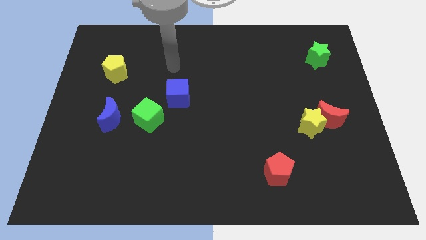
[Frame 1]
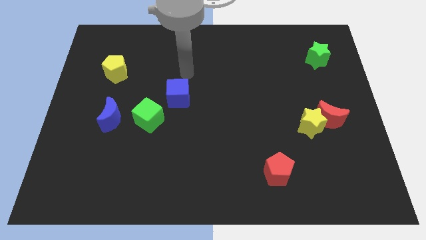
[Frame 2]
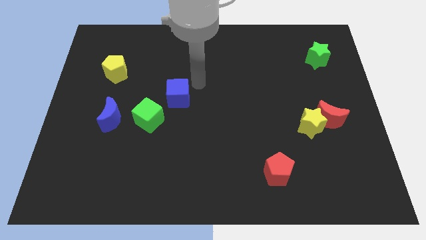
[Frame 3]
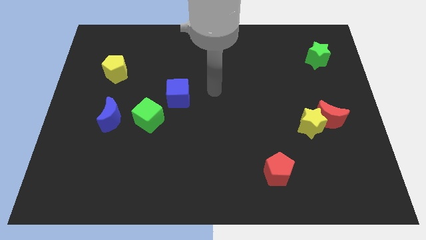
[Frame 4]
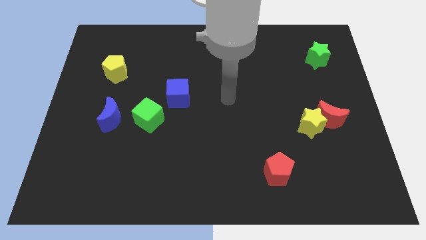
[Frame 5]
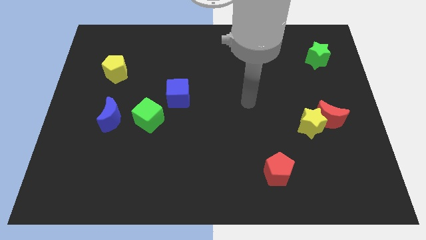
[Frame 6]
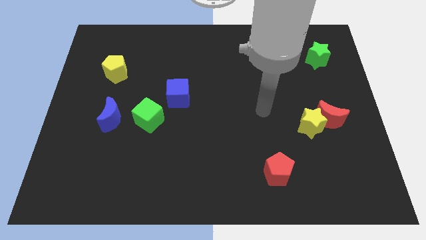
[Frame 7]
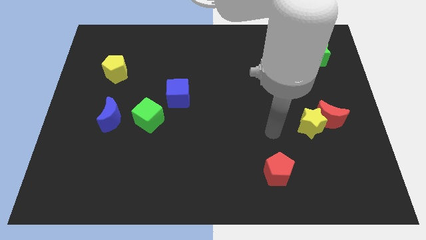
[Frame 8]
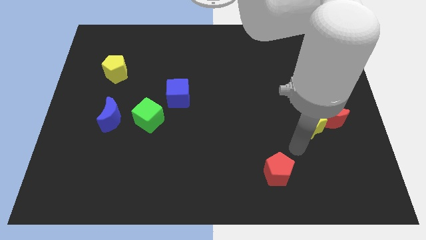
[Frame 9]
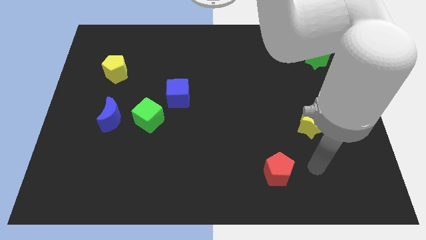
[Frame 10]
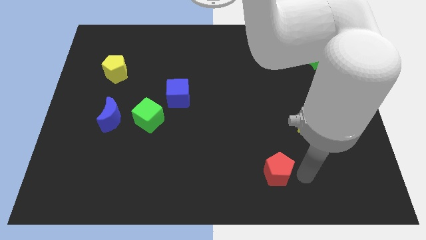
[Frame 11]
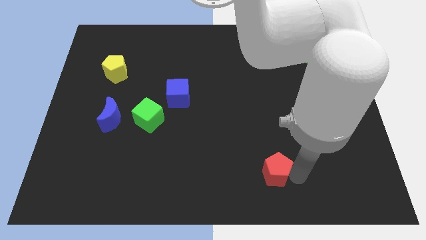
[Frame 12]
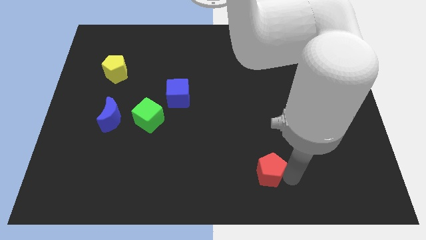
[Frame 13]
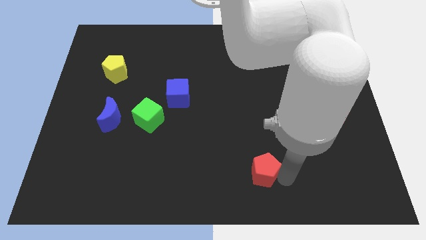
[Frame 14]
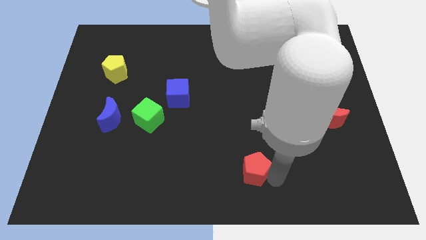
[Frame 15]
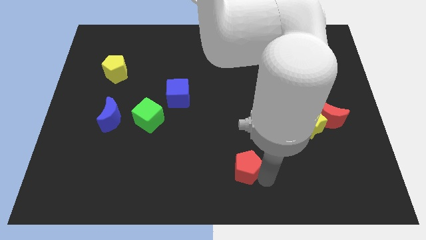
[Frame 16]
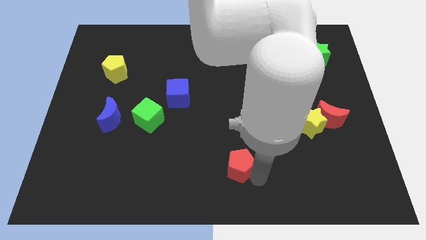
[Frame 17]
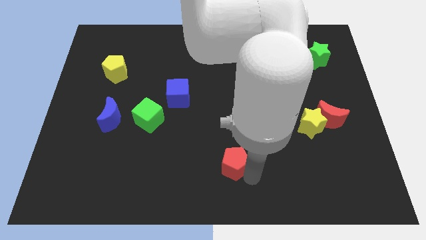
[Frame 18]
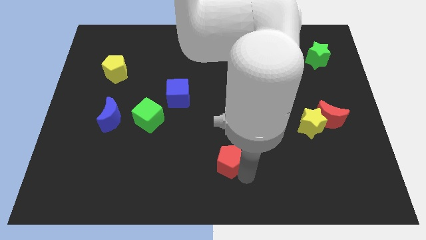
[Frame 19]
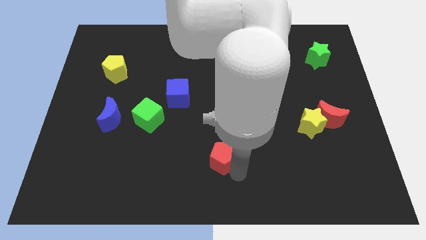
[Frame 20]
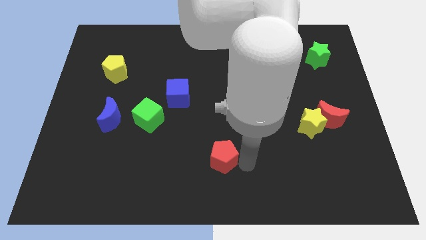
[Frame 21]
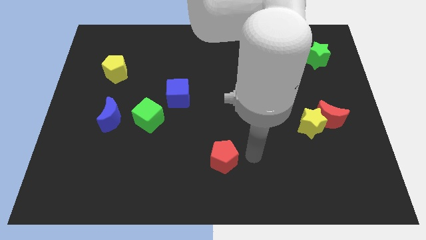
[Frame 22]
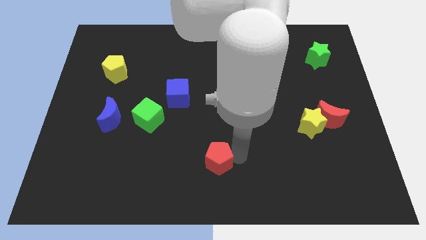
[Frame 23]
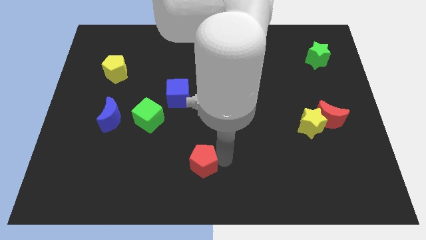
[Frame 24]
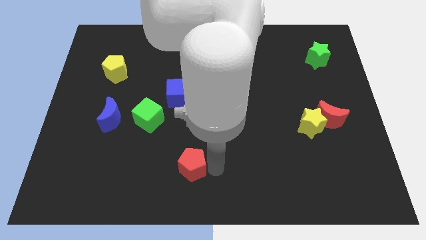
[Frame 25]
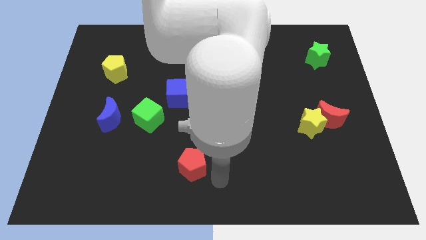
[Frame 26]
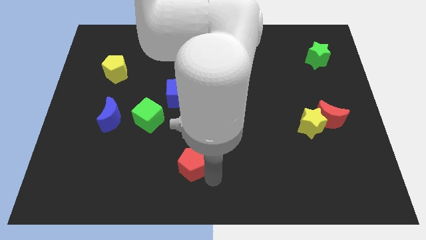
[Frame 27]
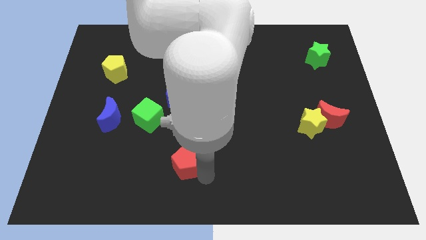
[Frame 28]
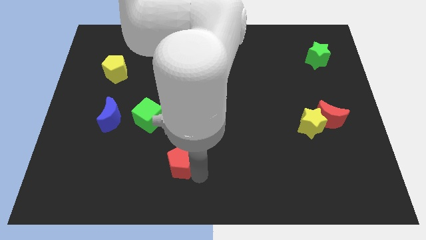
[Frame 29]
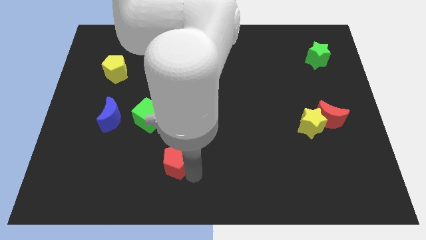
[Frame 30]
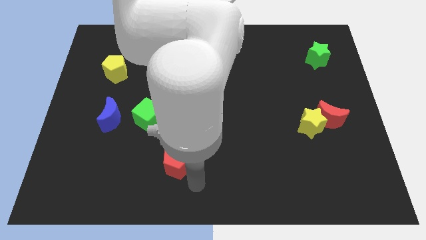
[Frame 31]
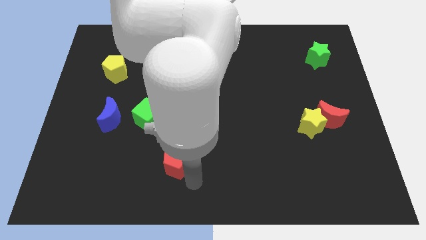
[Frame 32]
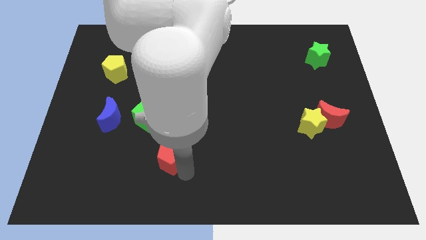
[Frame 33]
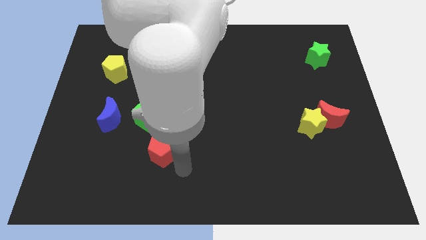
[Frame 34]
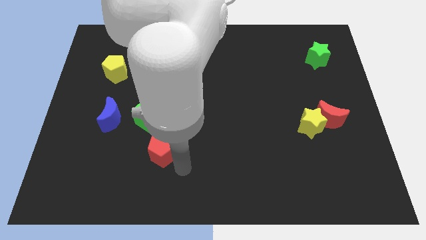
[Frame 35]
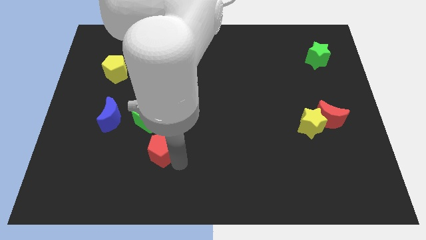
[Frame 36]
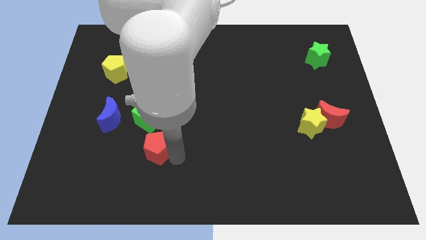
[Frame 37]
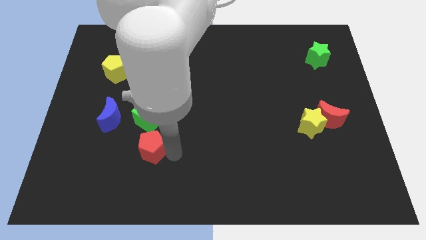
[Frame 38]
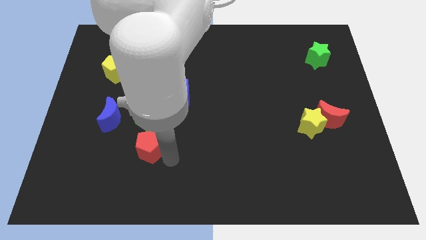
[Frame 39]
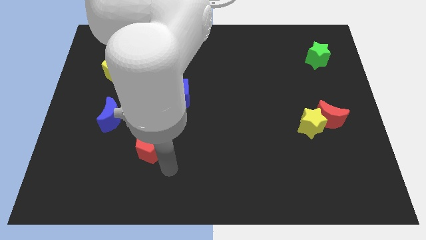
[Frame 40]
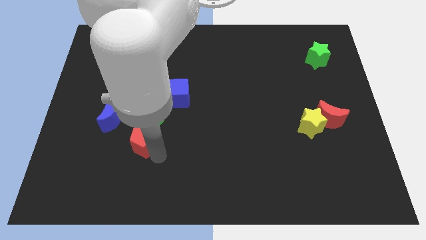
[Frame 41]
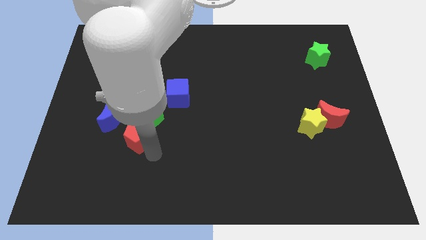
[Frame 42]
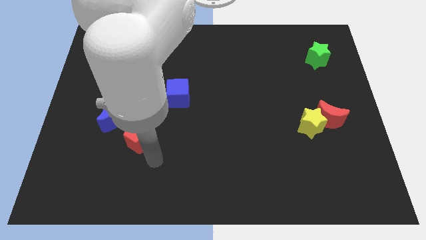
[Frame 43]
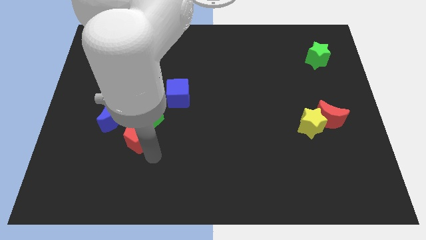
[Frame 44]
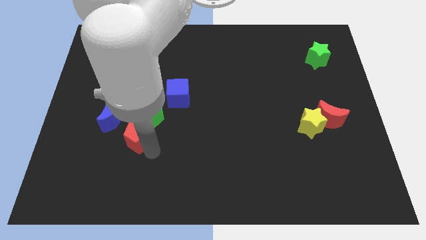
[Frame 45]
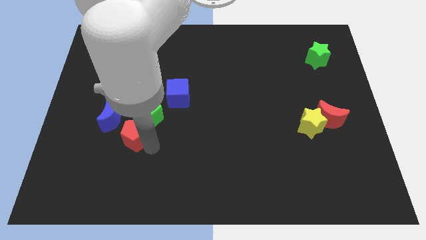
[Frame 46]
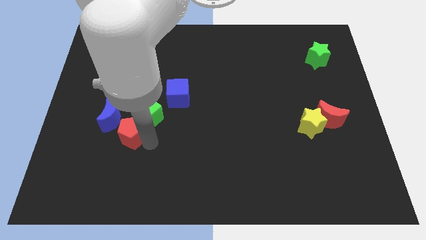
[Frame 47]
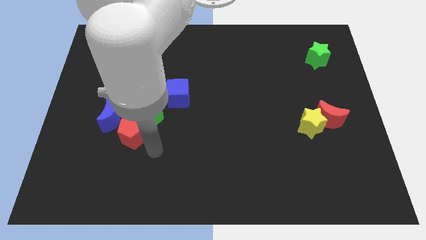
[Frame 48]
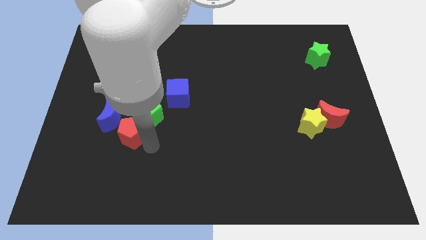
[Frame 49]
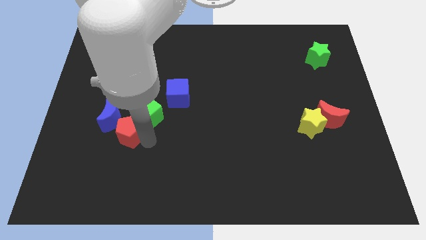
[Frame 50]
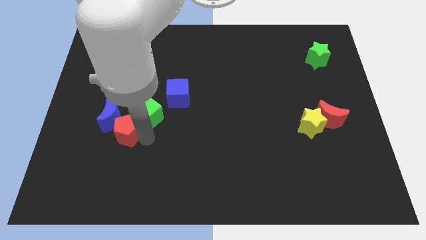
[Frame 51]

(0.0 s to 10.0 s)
slide the red pentagon towards the blue moon

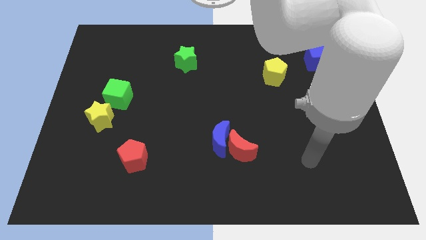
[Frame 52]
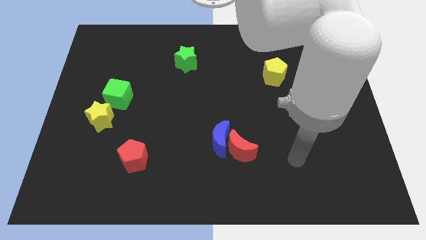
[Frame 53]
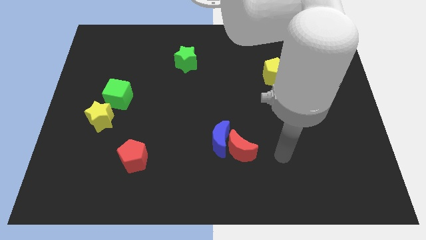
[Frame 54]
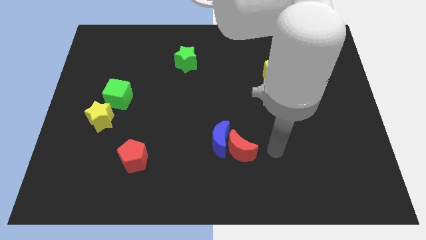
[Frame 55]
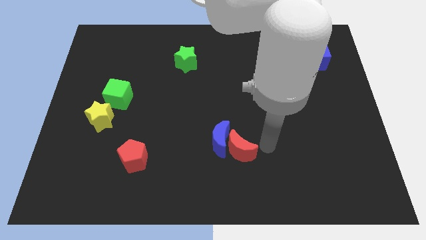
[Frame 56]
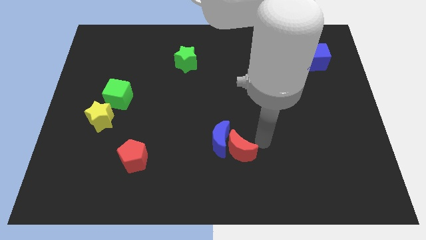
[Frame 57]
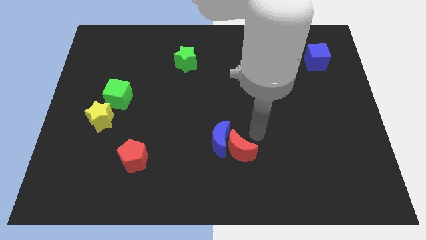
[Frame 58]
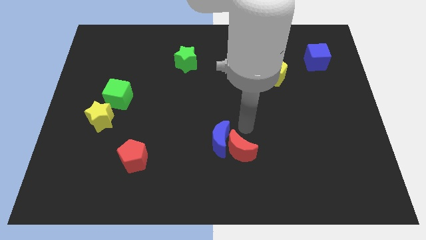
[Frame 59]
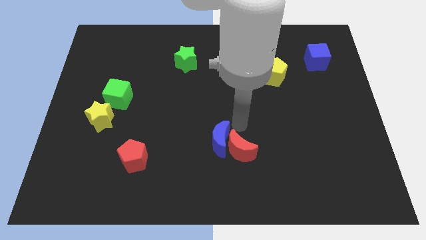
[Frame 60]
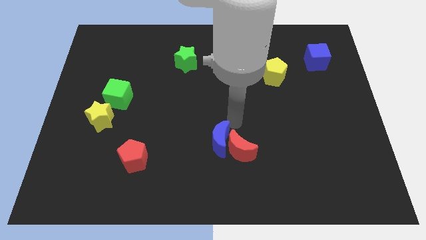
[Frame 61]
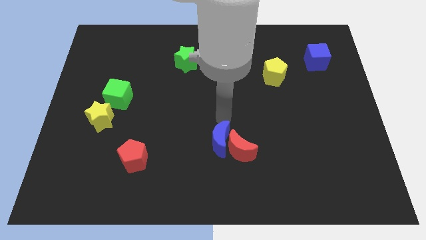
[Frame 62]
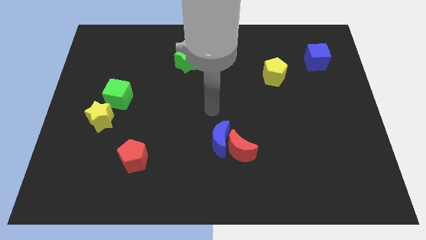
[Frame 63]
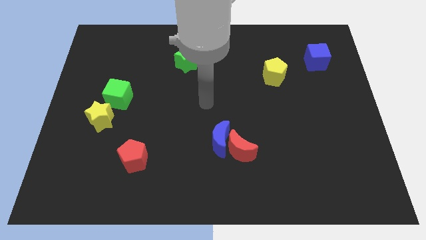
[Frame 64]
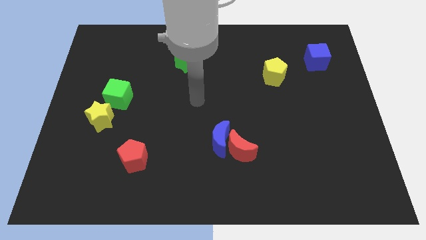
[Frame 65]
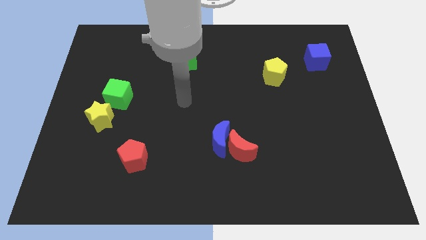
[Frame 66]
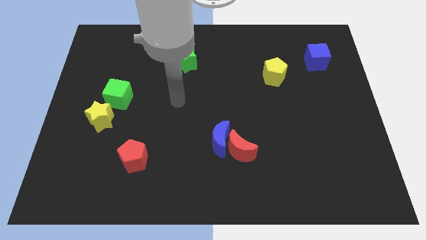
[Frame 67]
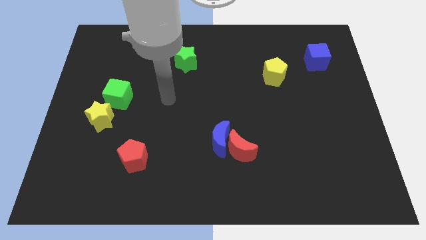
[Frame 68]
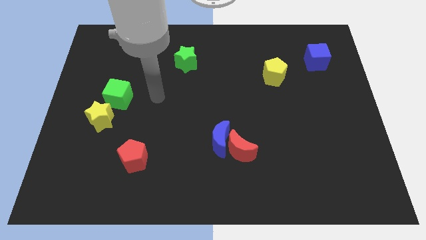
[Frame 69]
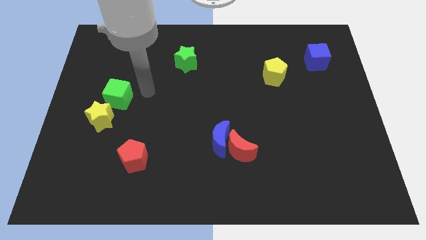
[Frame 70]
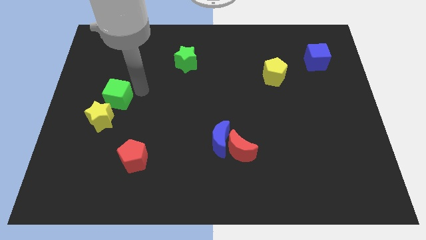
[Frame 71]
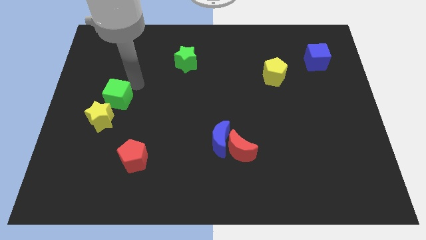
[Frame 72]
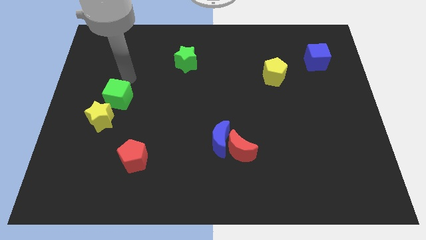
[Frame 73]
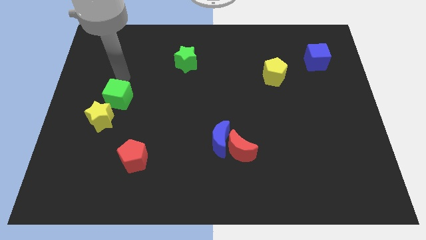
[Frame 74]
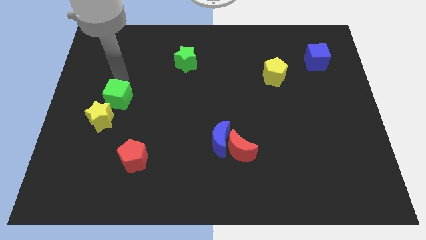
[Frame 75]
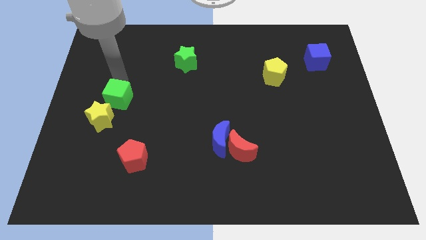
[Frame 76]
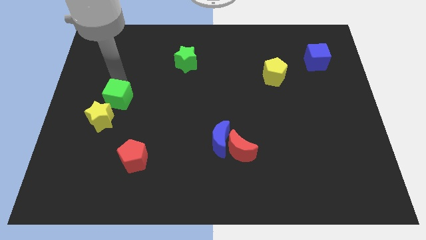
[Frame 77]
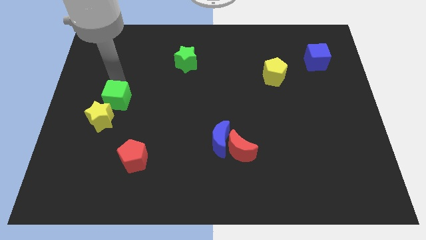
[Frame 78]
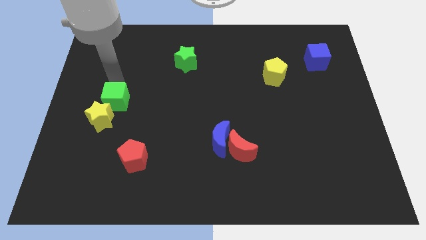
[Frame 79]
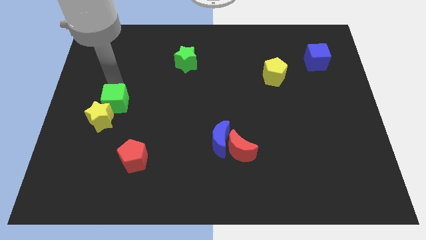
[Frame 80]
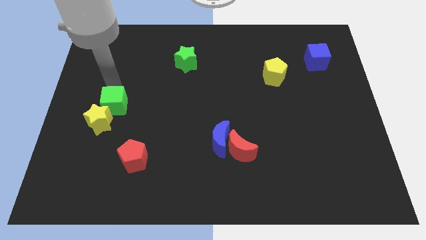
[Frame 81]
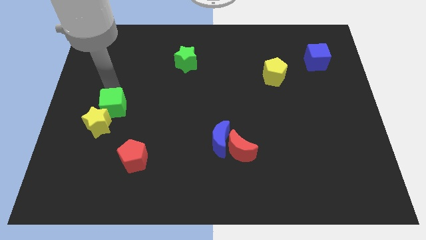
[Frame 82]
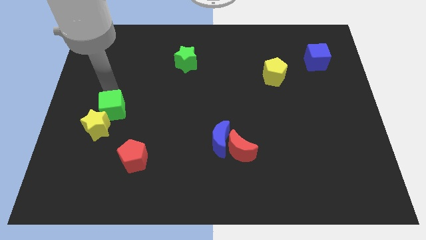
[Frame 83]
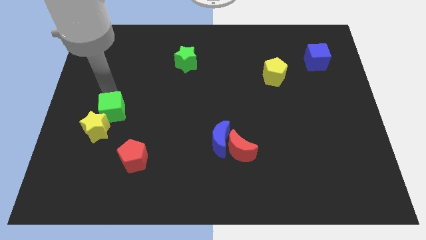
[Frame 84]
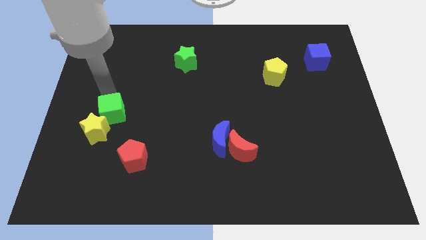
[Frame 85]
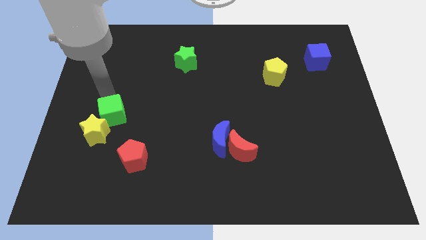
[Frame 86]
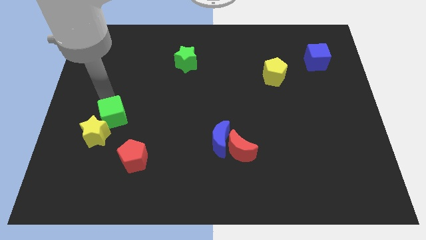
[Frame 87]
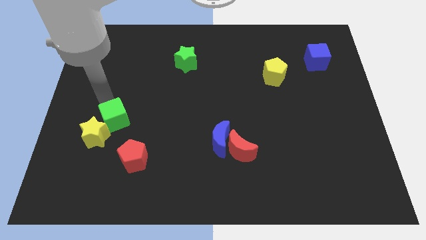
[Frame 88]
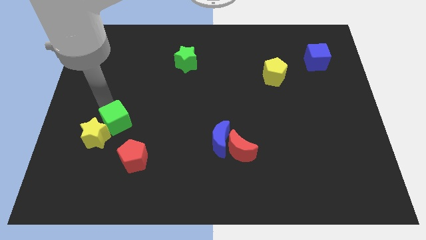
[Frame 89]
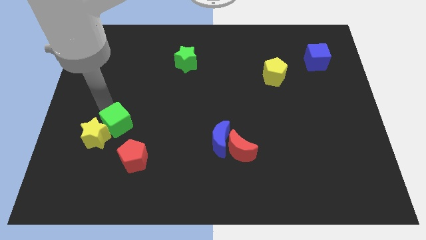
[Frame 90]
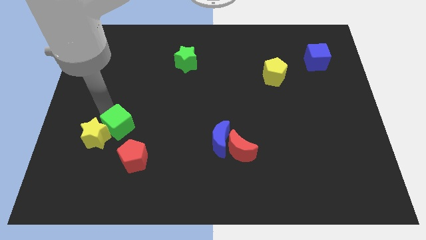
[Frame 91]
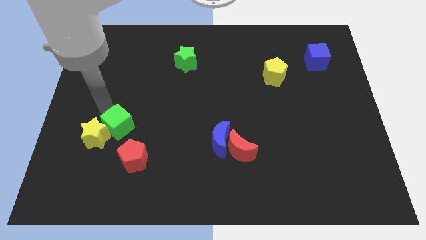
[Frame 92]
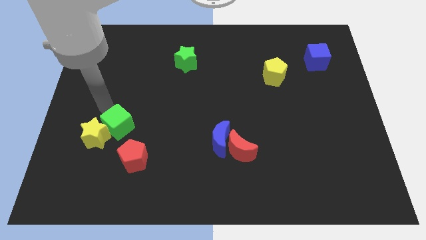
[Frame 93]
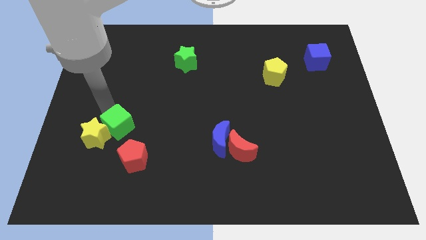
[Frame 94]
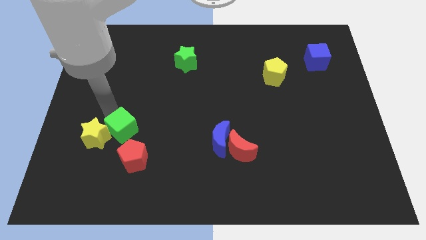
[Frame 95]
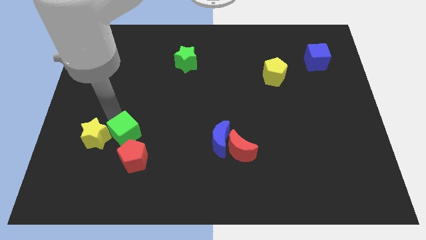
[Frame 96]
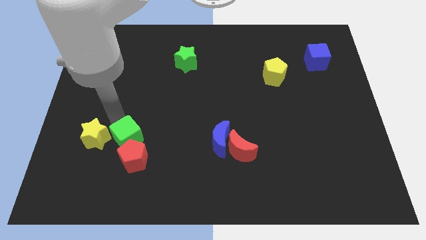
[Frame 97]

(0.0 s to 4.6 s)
slide the green cube to the red pentagon
